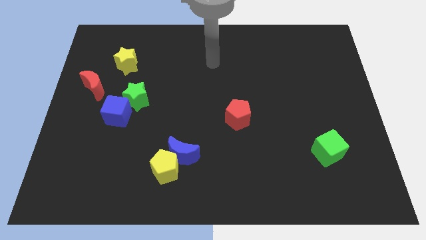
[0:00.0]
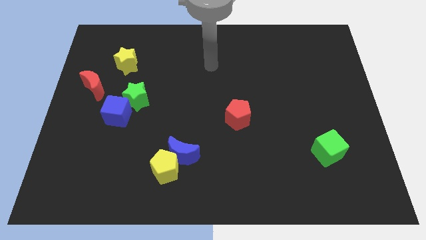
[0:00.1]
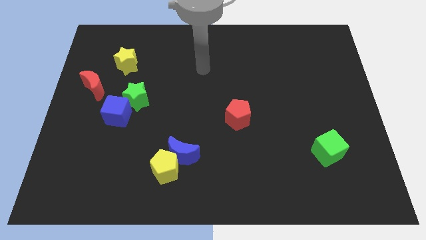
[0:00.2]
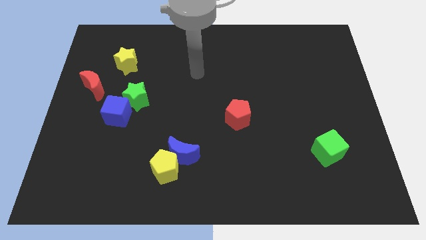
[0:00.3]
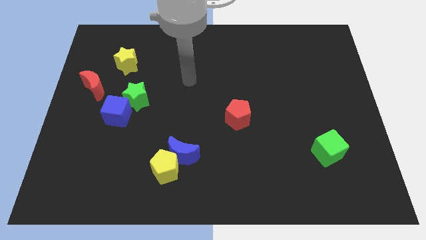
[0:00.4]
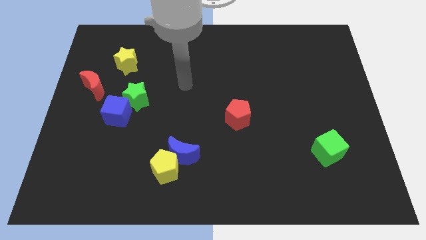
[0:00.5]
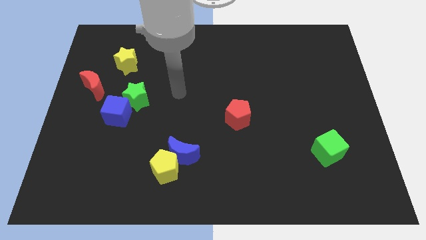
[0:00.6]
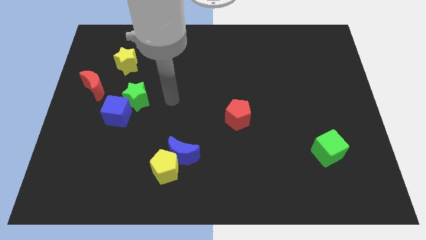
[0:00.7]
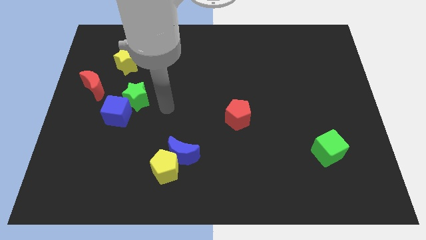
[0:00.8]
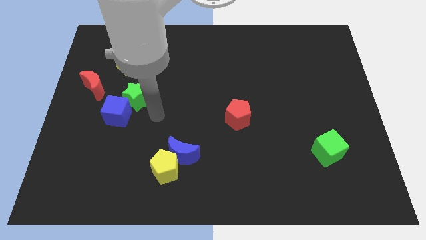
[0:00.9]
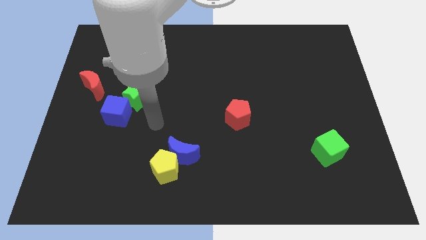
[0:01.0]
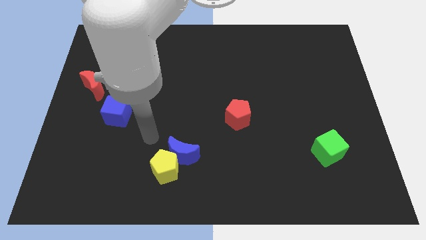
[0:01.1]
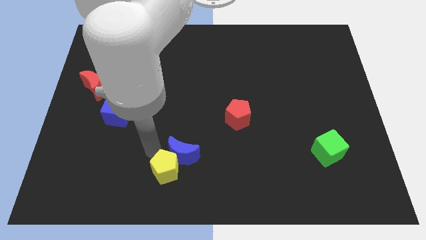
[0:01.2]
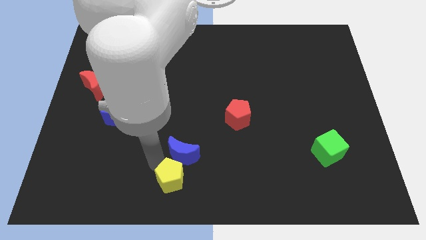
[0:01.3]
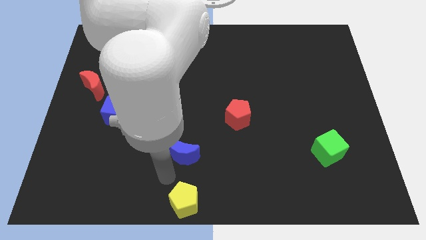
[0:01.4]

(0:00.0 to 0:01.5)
move the blue moon away from the yellow pentagon

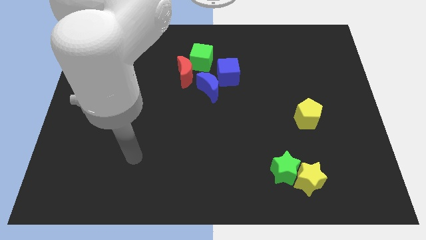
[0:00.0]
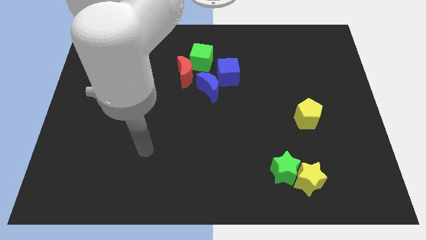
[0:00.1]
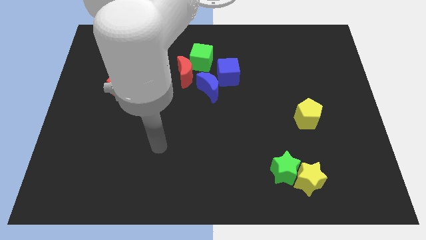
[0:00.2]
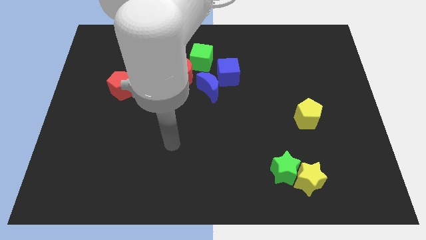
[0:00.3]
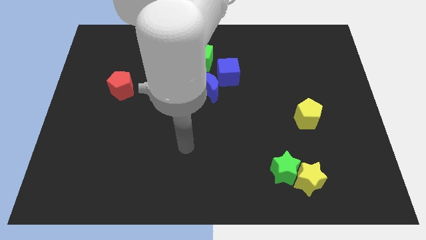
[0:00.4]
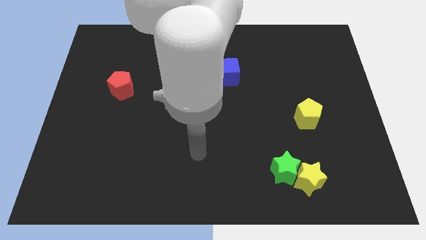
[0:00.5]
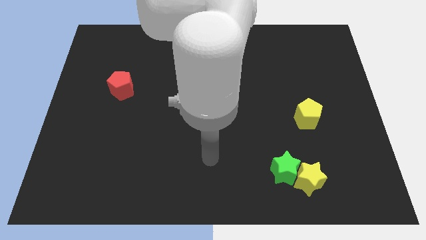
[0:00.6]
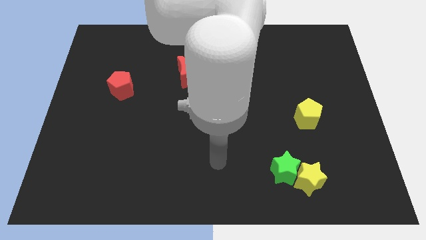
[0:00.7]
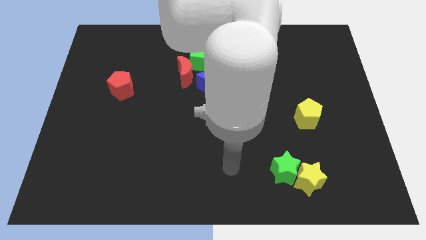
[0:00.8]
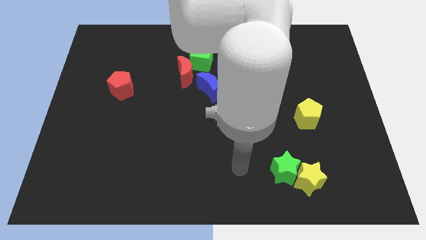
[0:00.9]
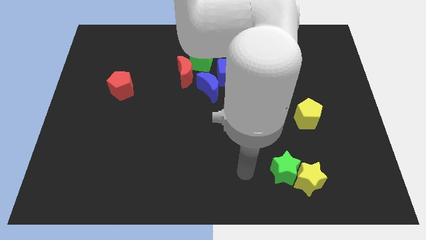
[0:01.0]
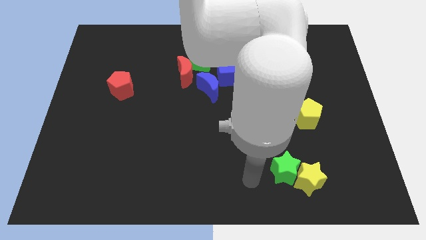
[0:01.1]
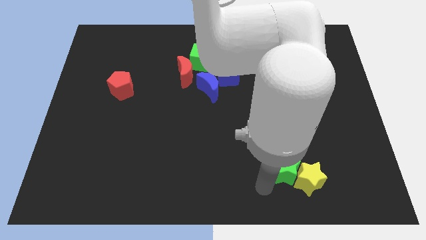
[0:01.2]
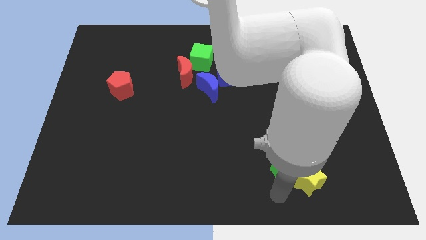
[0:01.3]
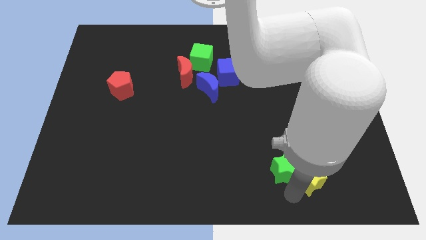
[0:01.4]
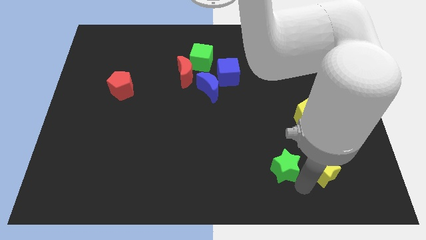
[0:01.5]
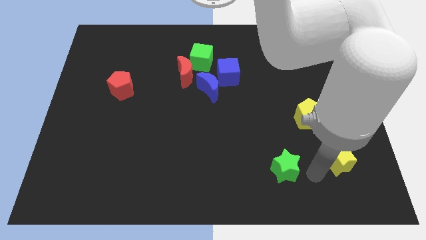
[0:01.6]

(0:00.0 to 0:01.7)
separate the green star from the yellow star

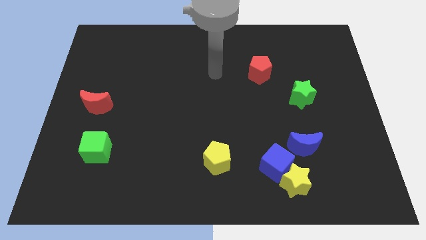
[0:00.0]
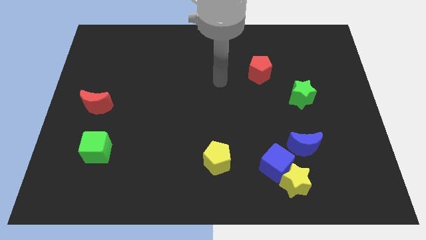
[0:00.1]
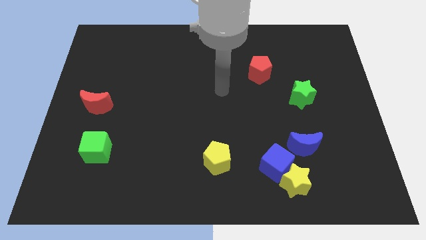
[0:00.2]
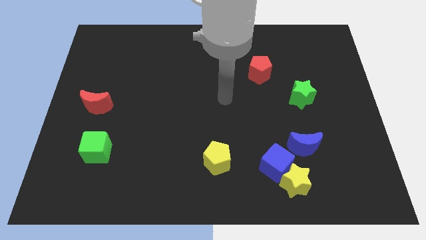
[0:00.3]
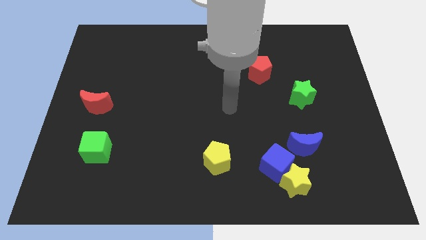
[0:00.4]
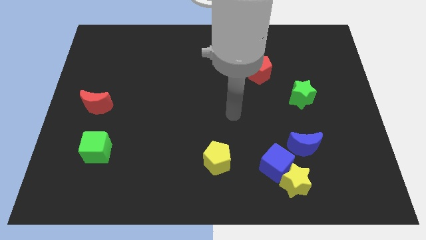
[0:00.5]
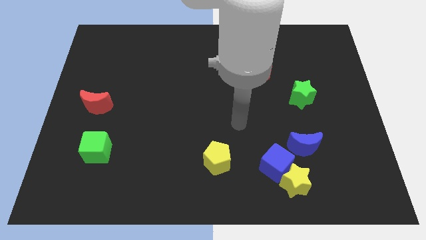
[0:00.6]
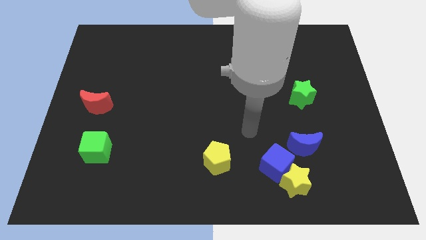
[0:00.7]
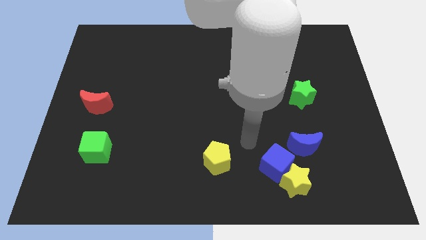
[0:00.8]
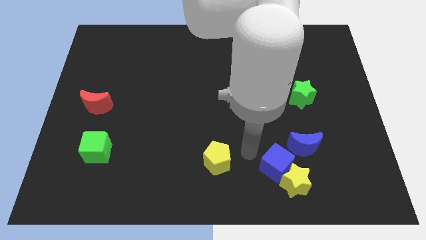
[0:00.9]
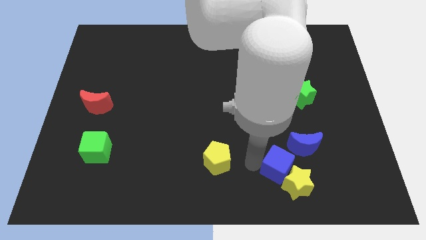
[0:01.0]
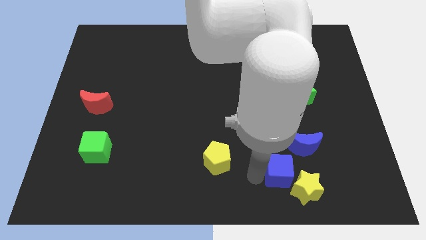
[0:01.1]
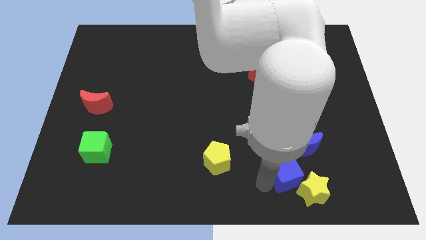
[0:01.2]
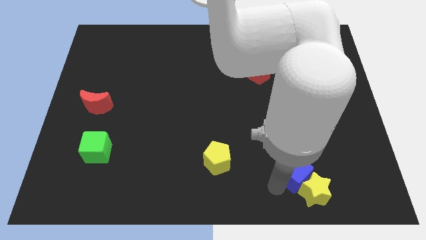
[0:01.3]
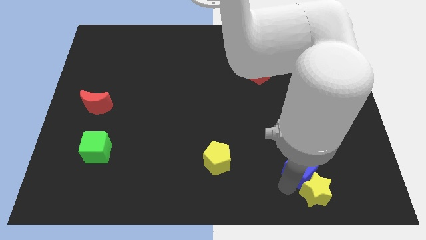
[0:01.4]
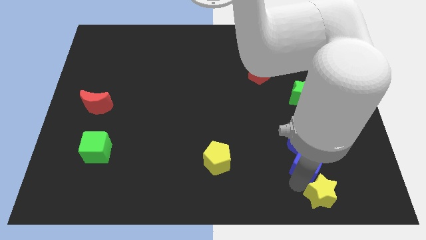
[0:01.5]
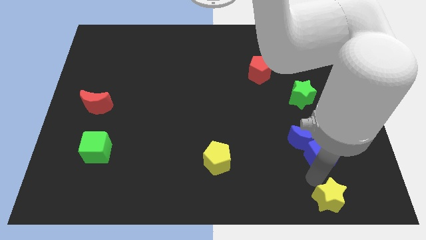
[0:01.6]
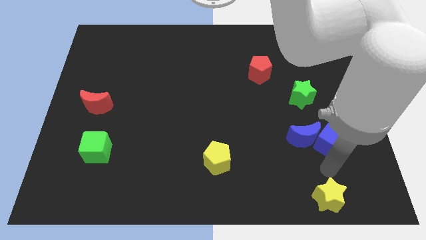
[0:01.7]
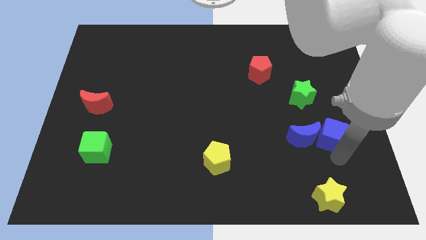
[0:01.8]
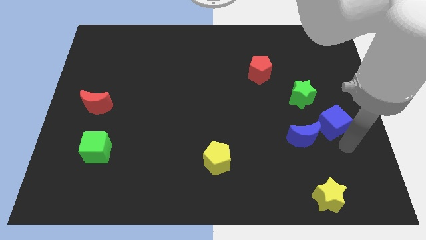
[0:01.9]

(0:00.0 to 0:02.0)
separate the blue cube from the yellow star and blue moon

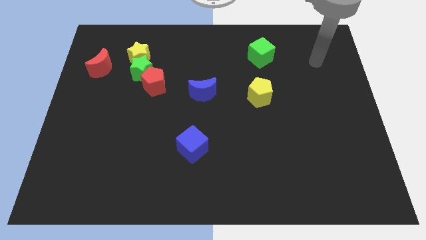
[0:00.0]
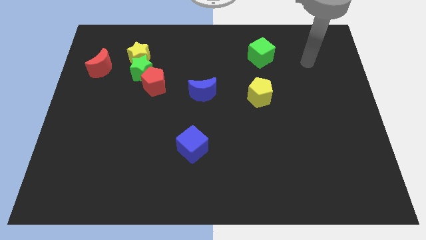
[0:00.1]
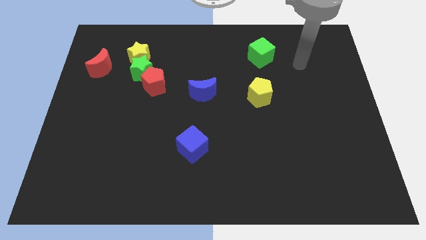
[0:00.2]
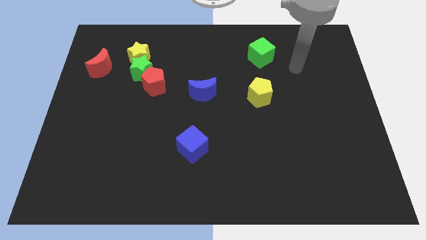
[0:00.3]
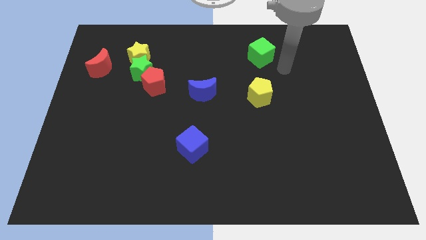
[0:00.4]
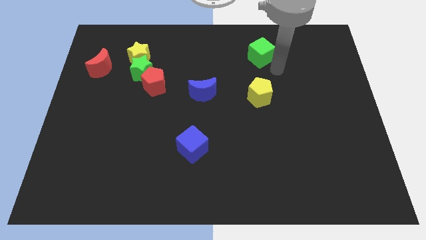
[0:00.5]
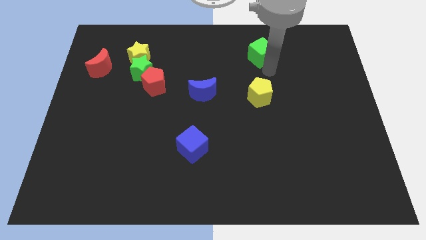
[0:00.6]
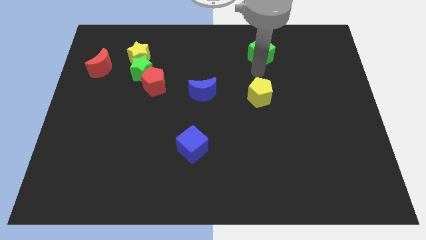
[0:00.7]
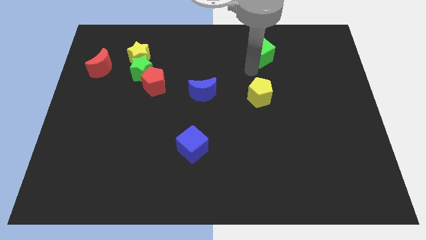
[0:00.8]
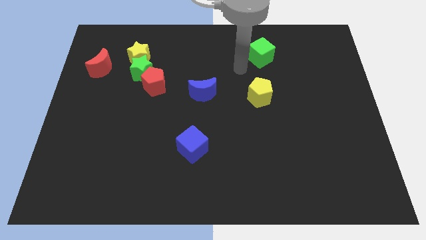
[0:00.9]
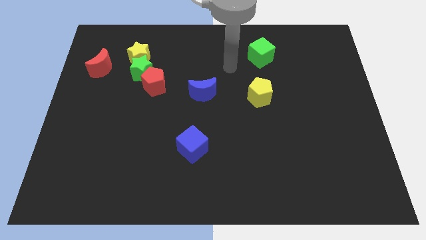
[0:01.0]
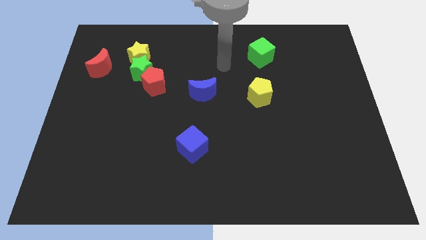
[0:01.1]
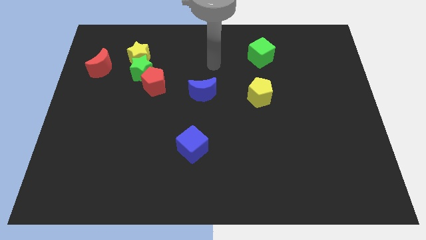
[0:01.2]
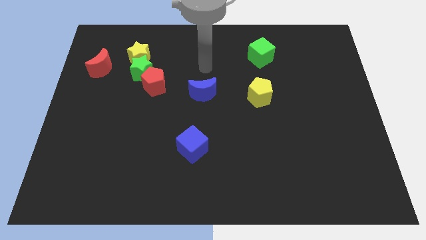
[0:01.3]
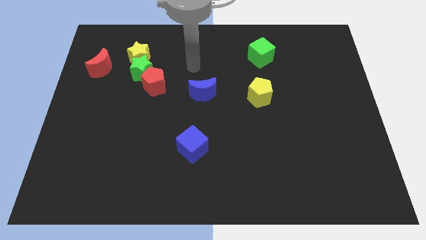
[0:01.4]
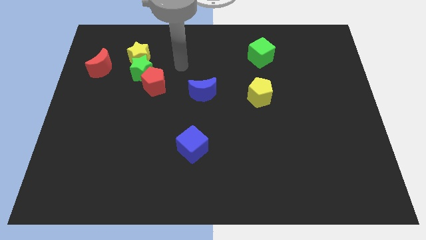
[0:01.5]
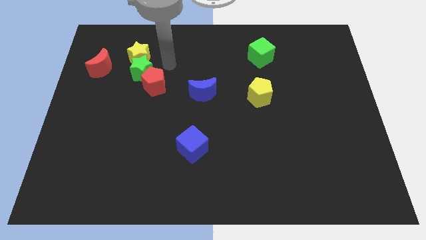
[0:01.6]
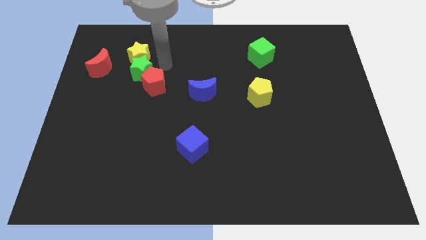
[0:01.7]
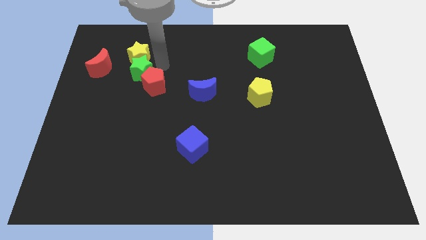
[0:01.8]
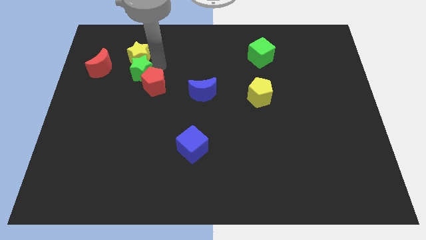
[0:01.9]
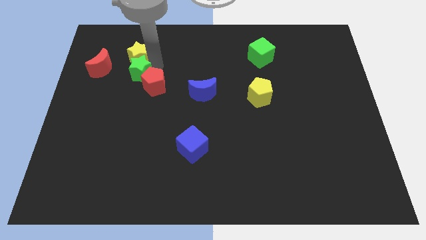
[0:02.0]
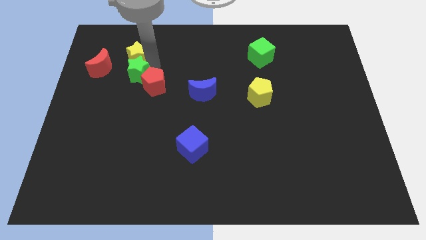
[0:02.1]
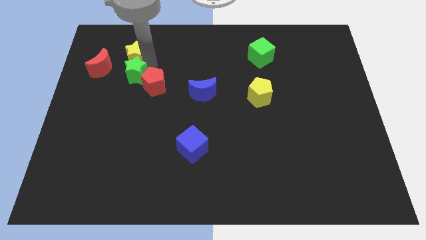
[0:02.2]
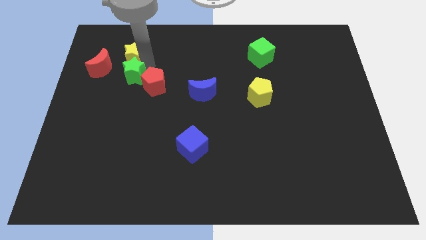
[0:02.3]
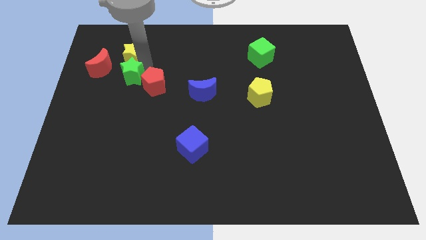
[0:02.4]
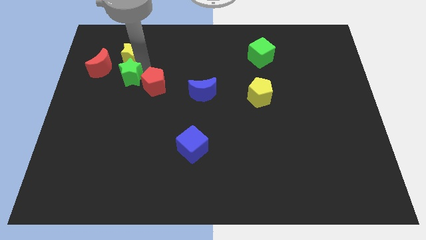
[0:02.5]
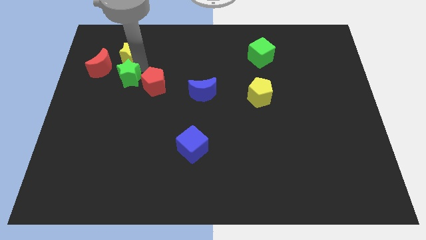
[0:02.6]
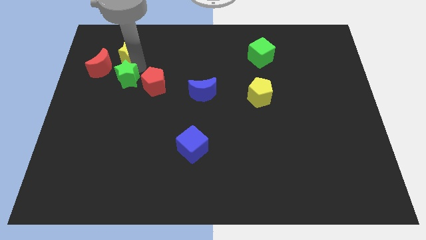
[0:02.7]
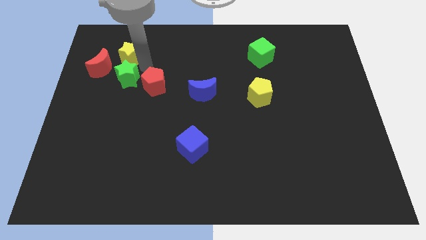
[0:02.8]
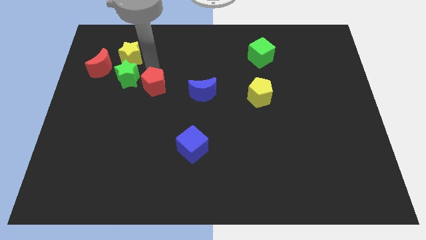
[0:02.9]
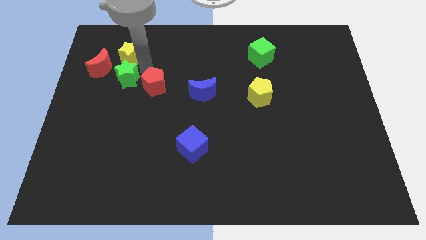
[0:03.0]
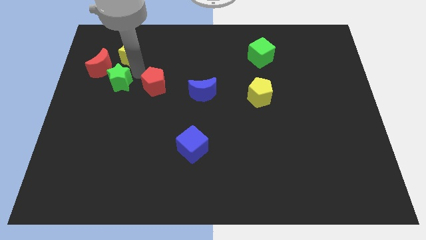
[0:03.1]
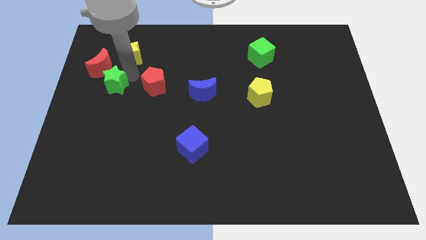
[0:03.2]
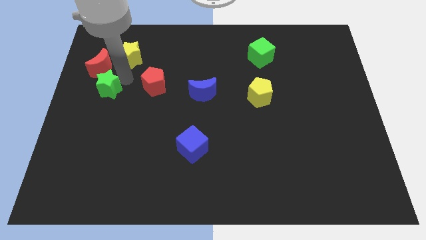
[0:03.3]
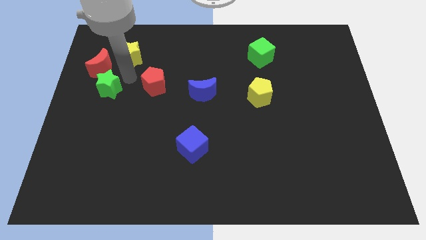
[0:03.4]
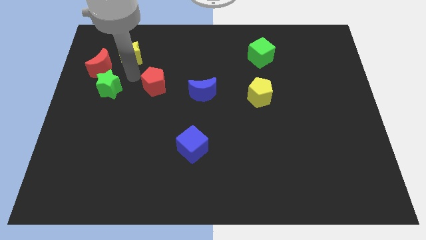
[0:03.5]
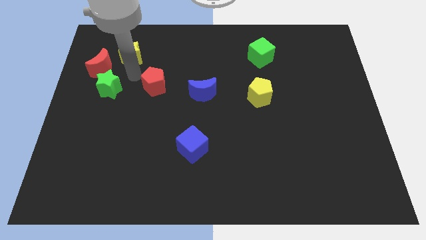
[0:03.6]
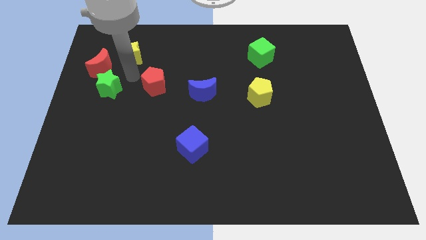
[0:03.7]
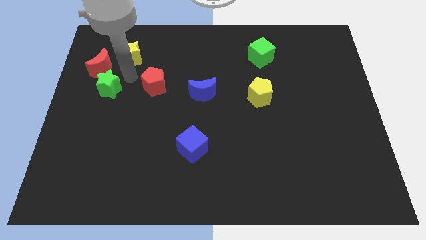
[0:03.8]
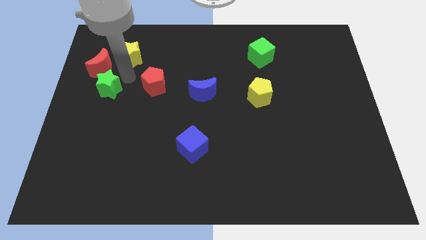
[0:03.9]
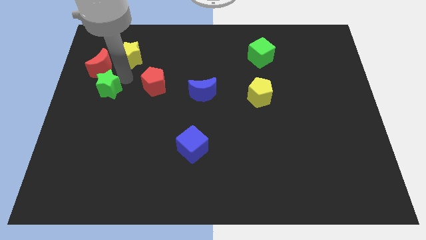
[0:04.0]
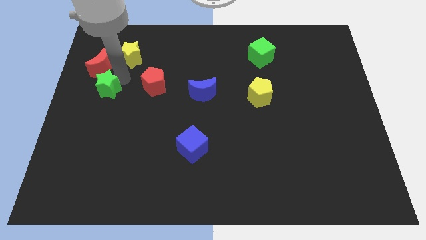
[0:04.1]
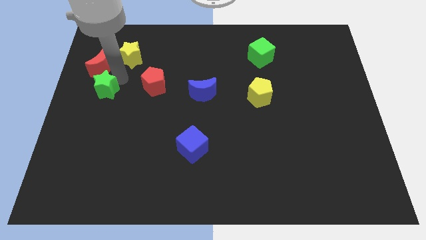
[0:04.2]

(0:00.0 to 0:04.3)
separate the green star from the yellow star and red pentagon

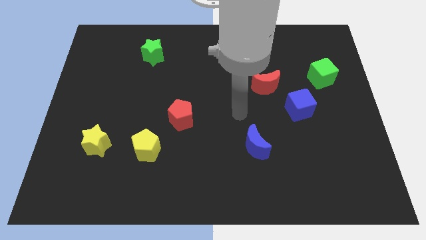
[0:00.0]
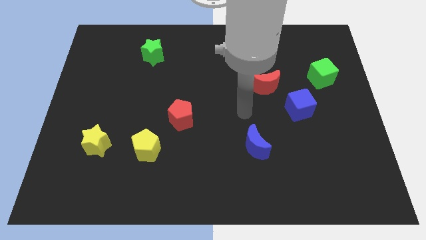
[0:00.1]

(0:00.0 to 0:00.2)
pull the red moon apart from the blue cube
